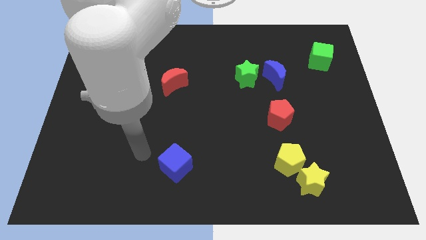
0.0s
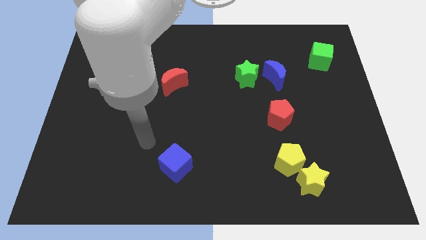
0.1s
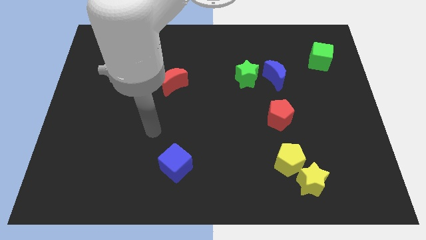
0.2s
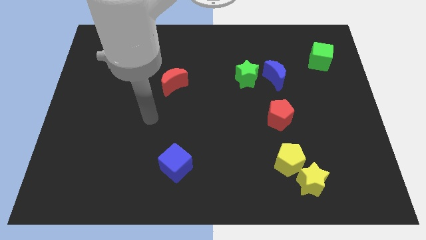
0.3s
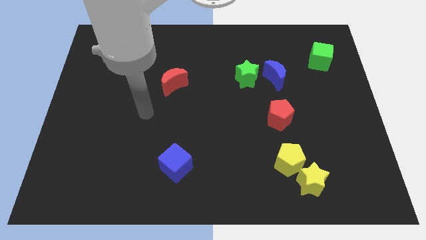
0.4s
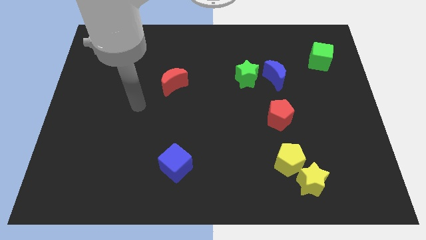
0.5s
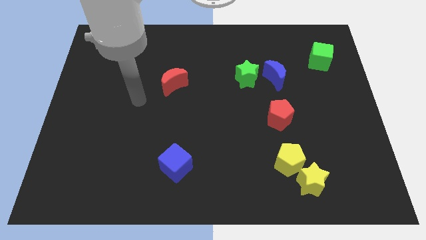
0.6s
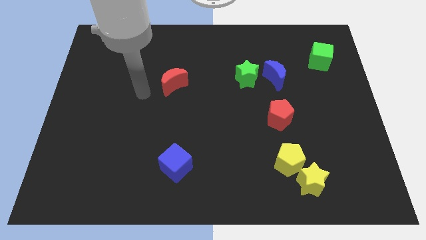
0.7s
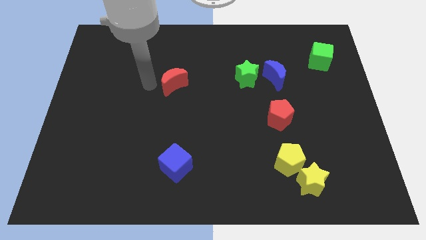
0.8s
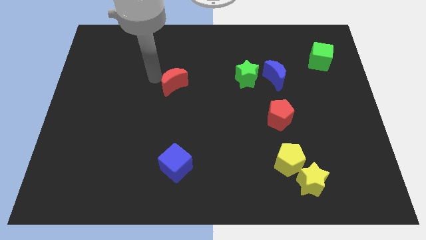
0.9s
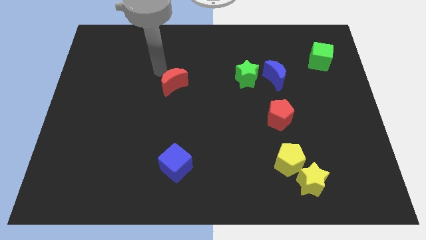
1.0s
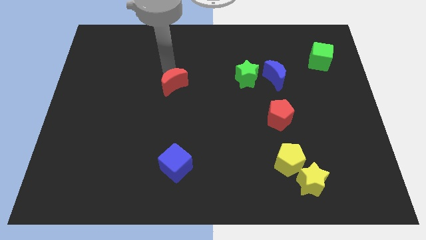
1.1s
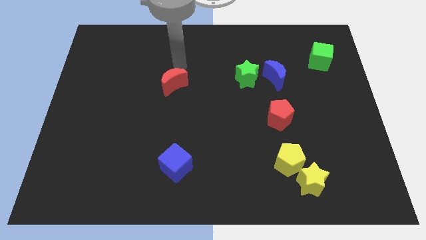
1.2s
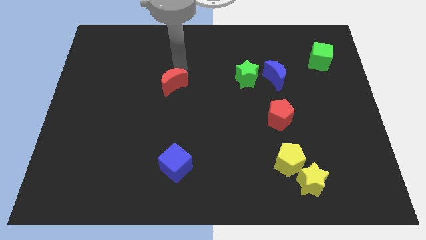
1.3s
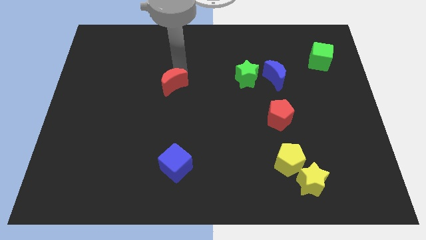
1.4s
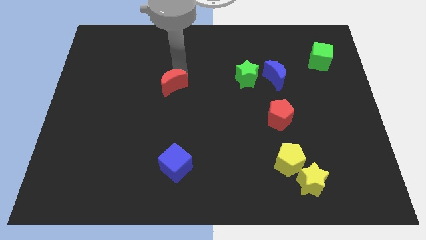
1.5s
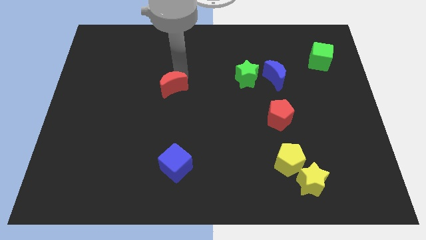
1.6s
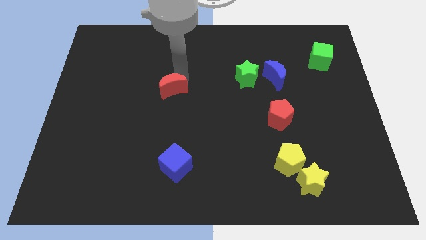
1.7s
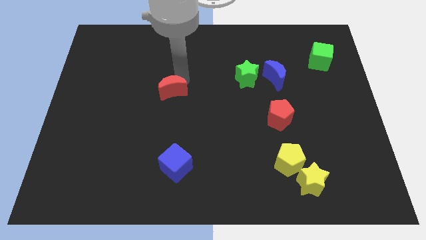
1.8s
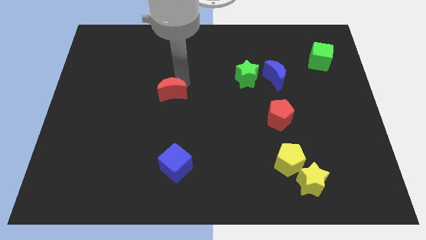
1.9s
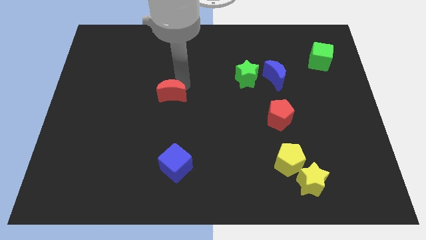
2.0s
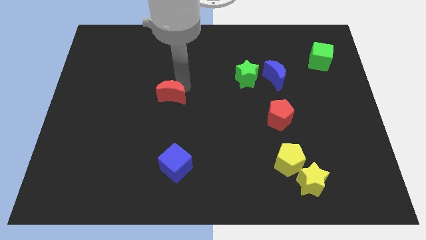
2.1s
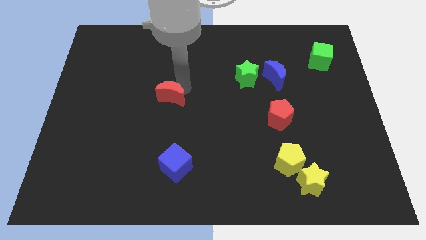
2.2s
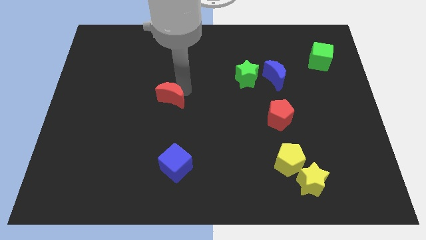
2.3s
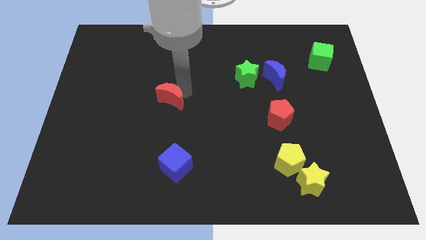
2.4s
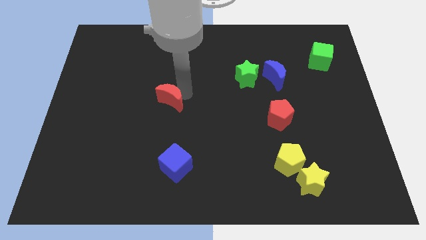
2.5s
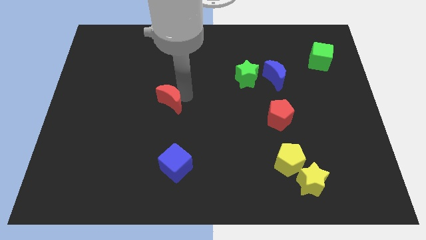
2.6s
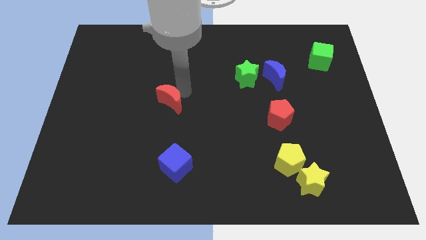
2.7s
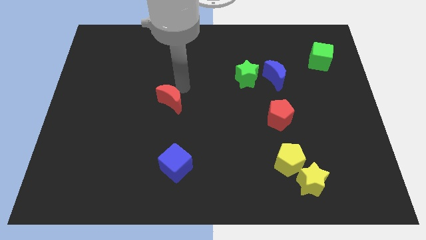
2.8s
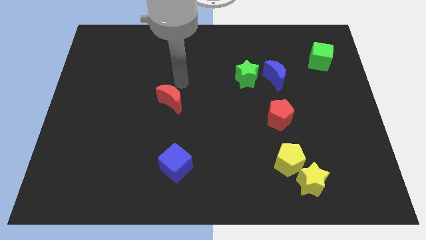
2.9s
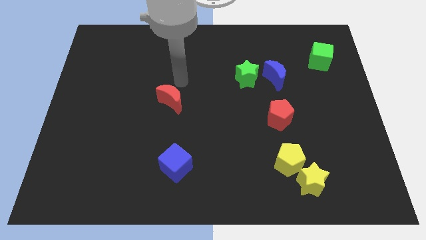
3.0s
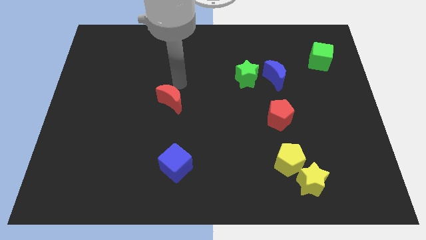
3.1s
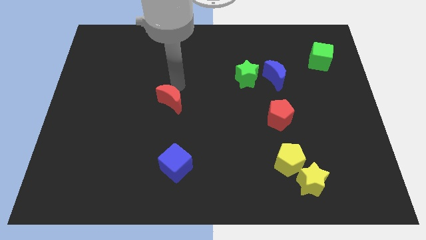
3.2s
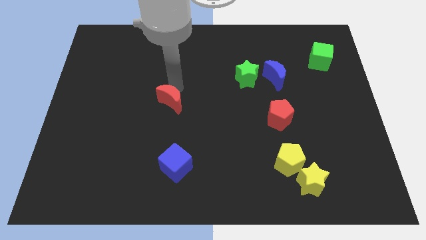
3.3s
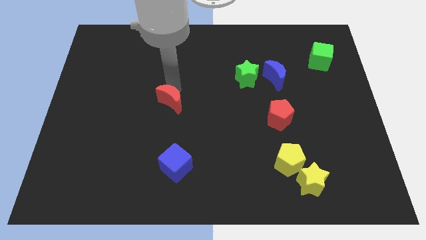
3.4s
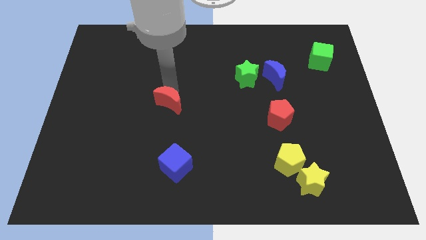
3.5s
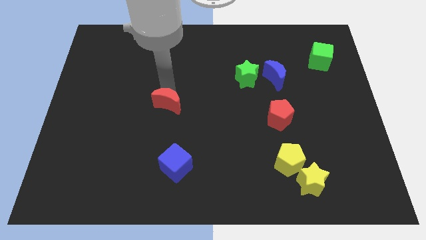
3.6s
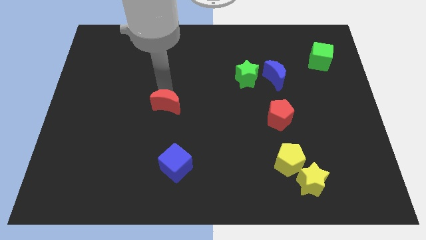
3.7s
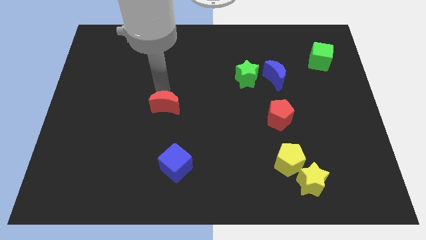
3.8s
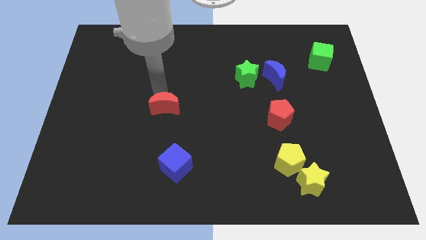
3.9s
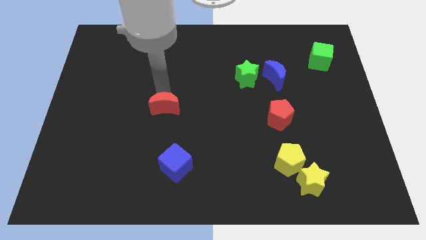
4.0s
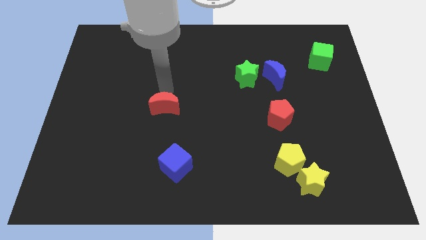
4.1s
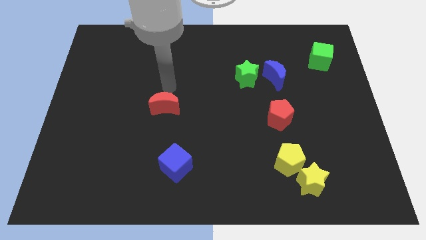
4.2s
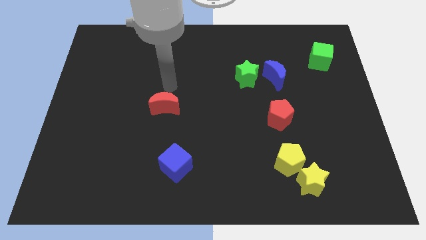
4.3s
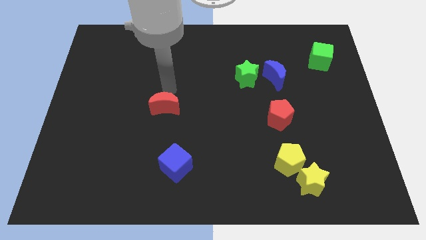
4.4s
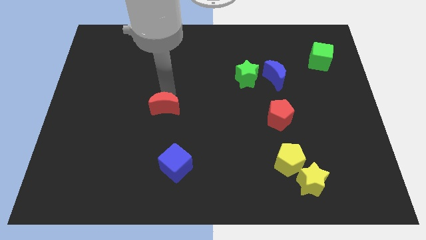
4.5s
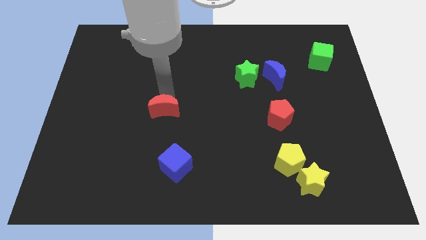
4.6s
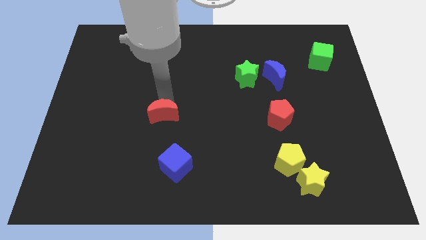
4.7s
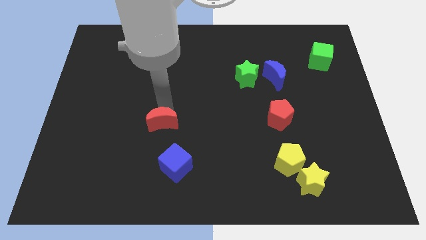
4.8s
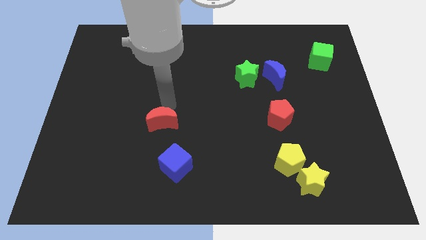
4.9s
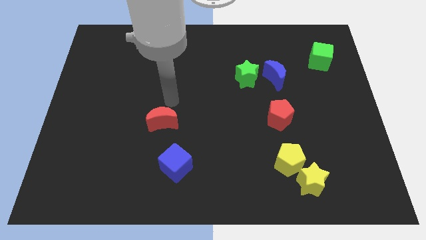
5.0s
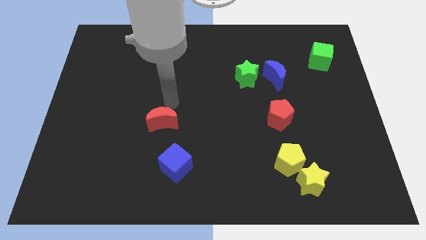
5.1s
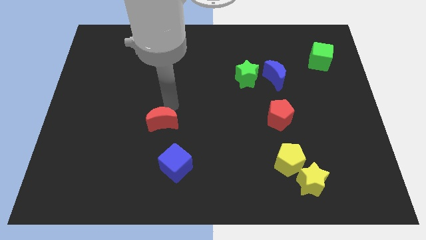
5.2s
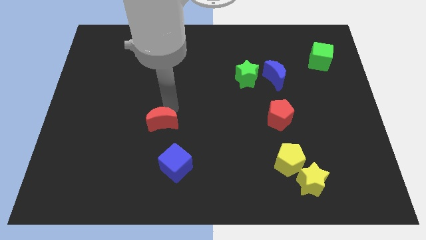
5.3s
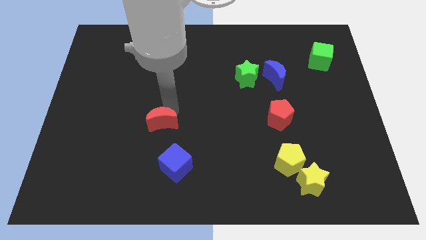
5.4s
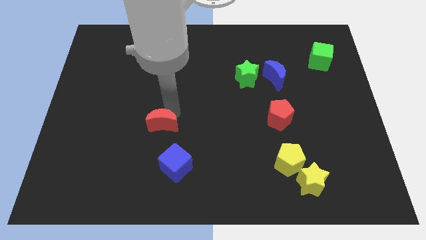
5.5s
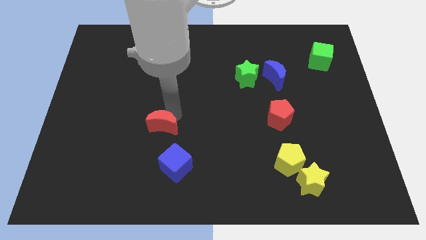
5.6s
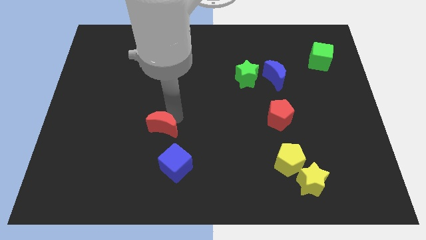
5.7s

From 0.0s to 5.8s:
put the red moon to the top left of the blue cube

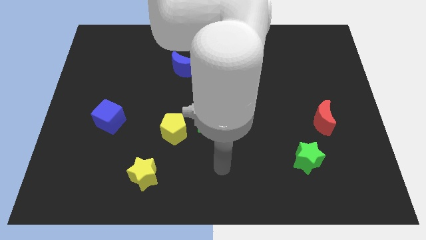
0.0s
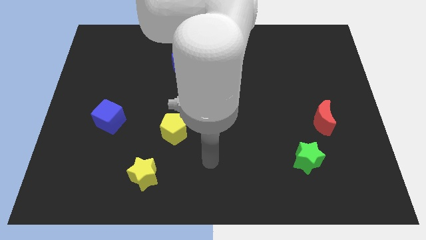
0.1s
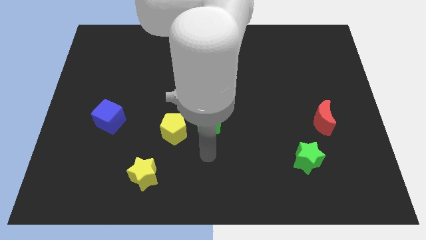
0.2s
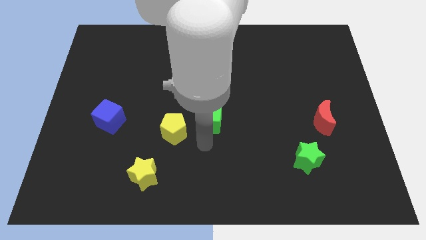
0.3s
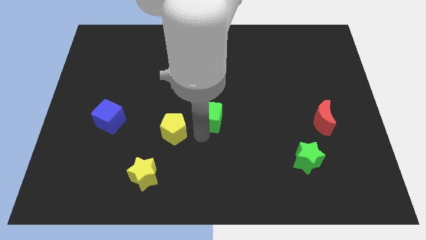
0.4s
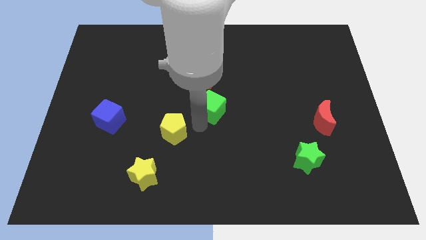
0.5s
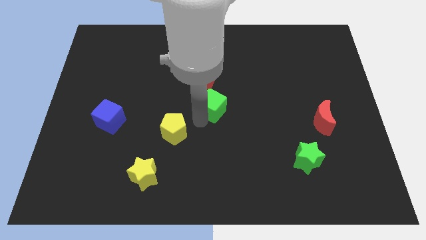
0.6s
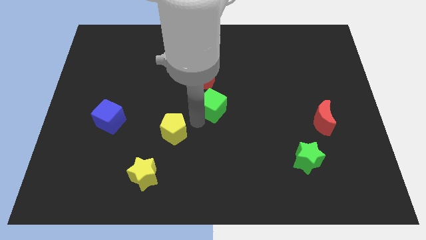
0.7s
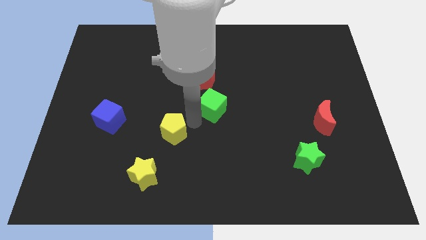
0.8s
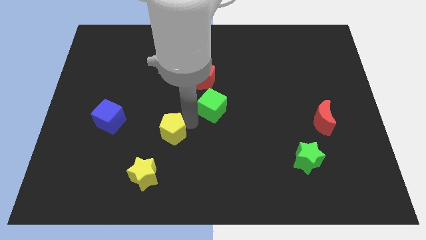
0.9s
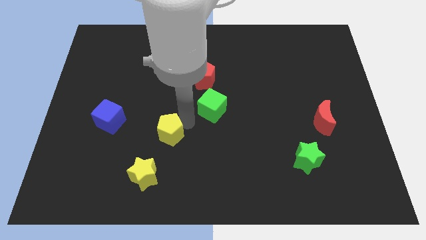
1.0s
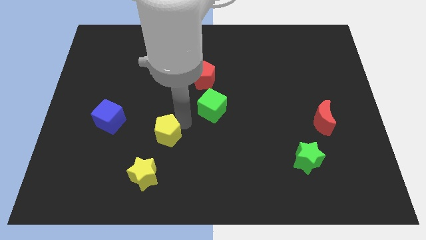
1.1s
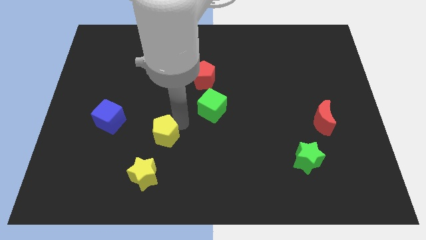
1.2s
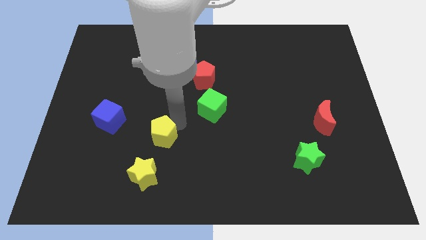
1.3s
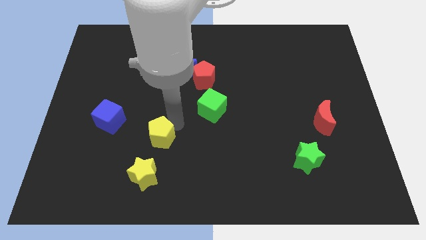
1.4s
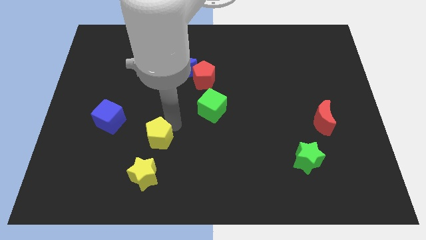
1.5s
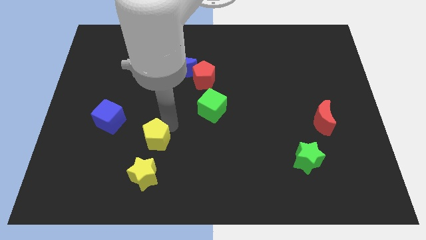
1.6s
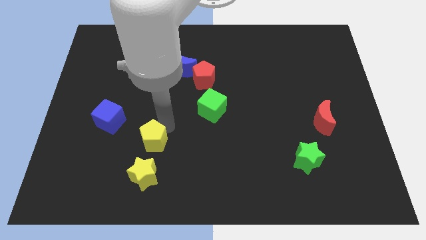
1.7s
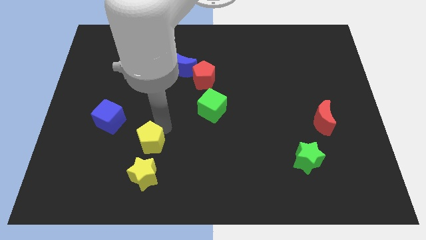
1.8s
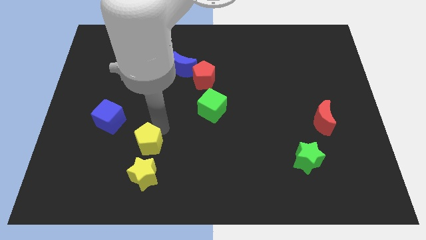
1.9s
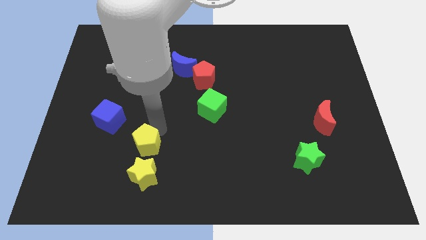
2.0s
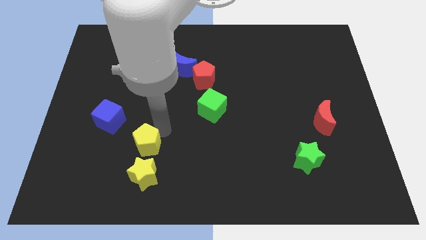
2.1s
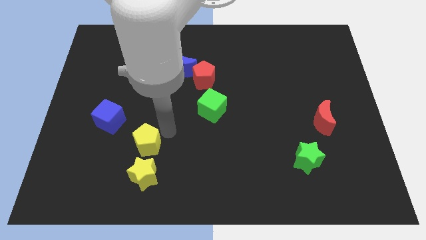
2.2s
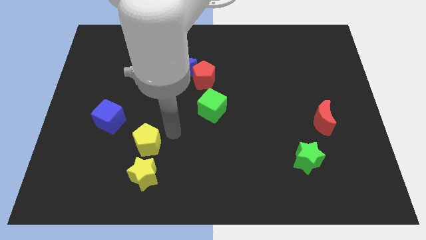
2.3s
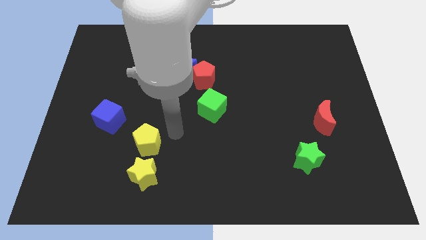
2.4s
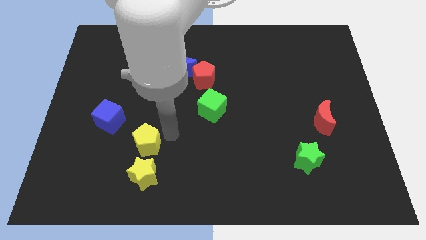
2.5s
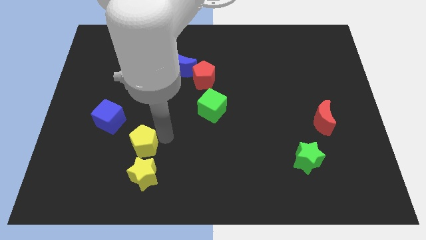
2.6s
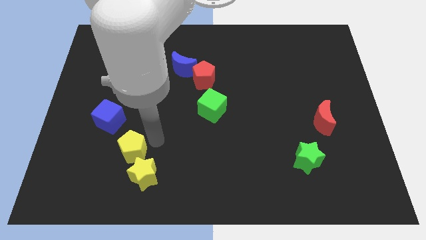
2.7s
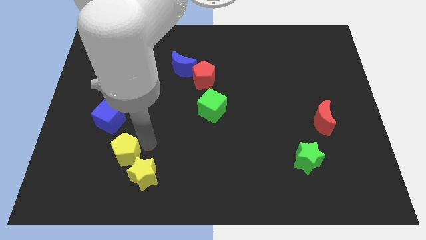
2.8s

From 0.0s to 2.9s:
move the yellow pentagon to the bottom side of the blue cube
